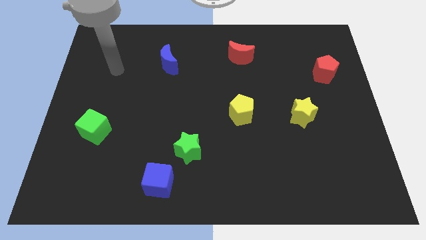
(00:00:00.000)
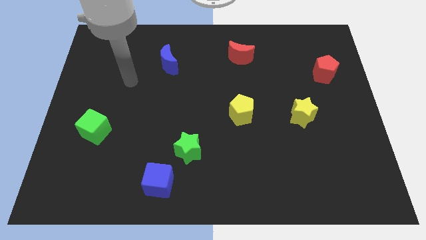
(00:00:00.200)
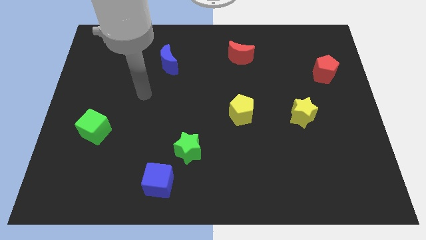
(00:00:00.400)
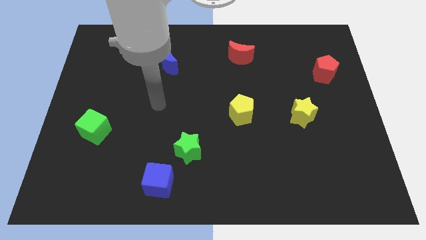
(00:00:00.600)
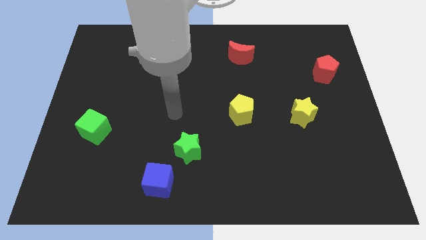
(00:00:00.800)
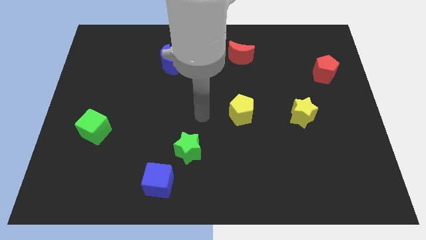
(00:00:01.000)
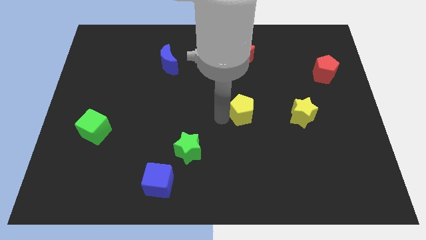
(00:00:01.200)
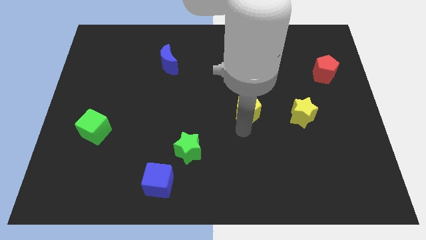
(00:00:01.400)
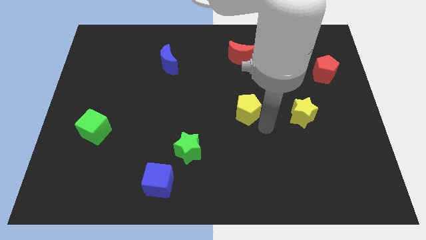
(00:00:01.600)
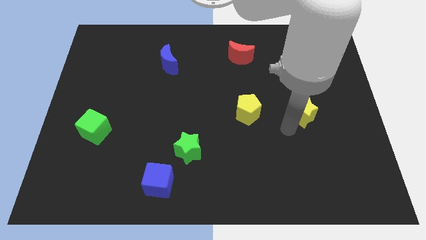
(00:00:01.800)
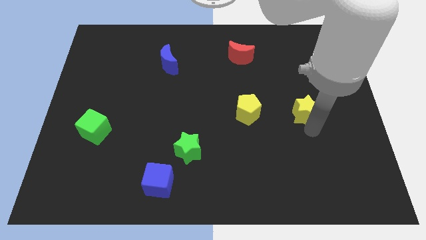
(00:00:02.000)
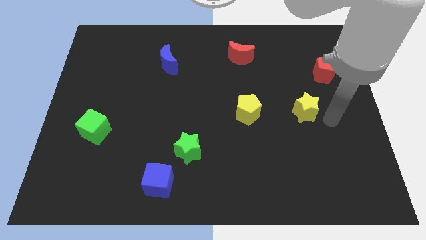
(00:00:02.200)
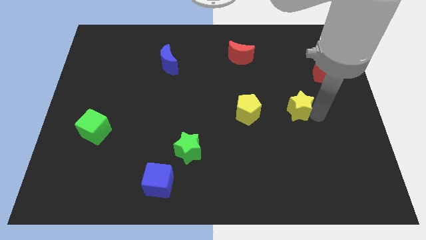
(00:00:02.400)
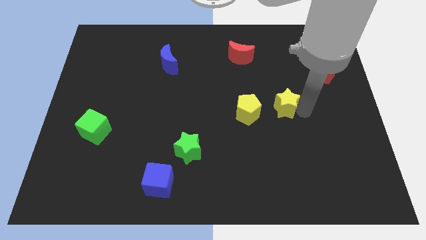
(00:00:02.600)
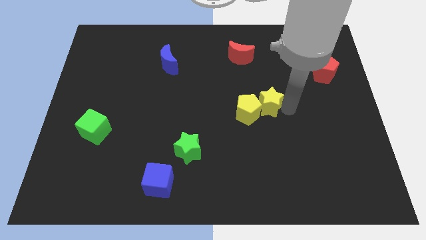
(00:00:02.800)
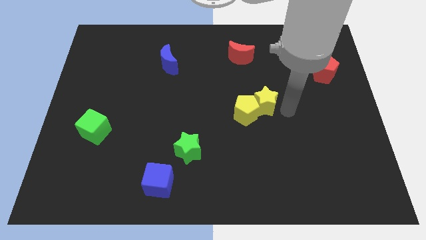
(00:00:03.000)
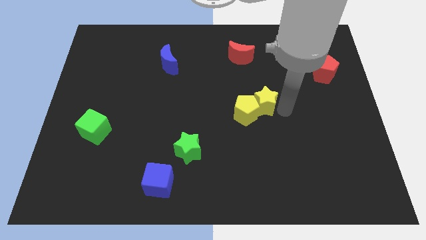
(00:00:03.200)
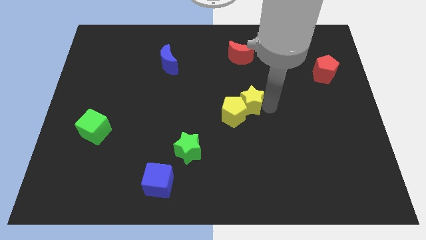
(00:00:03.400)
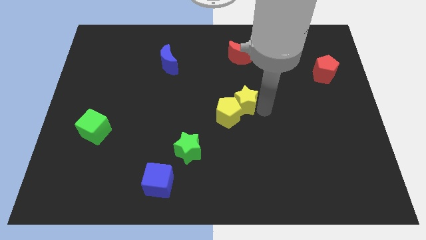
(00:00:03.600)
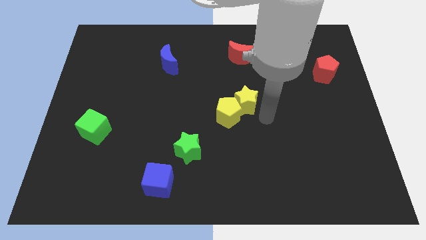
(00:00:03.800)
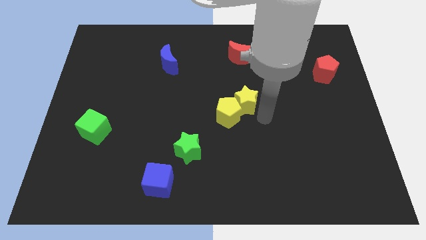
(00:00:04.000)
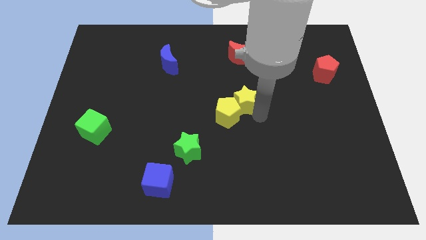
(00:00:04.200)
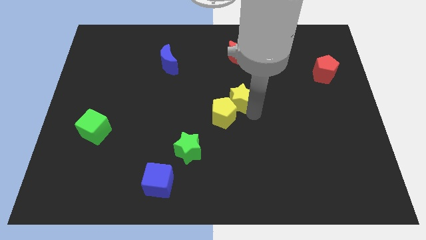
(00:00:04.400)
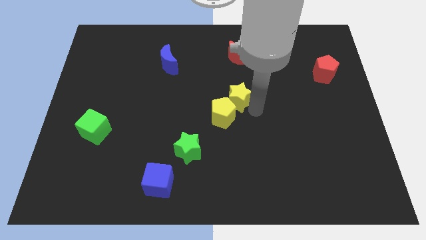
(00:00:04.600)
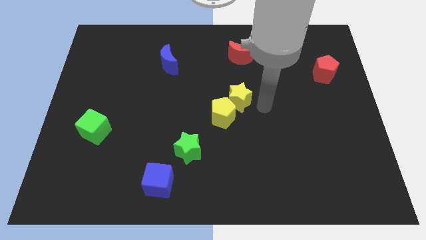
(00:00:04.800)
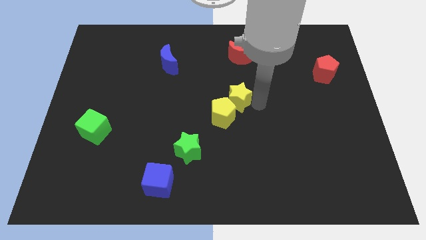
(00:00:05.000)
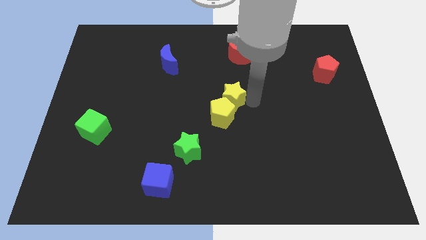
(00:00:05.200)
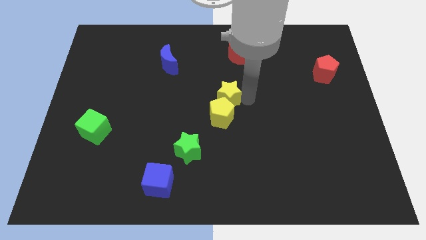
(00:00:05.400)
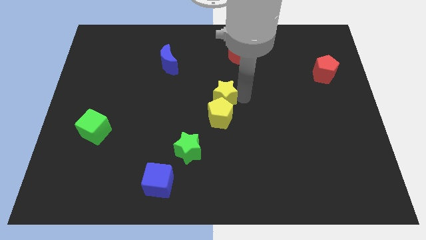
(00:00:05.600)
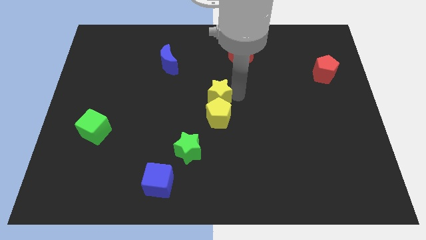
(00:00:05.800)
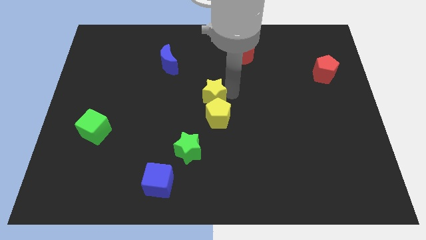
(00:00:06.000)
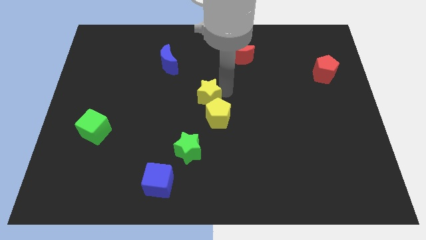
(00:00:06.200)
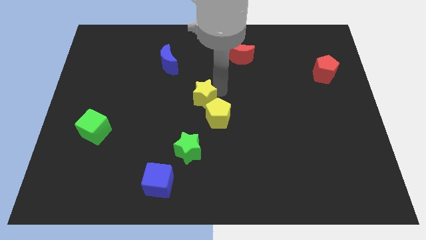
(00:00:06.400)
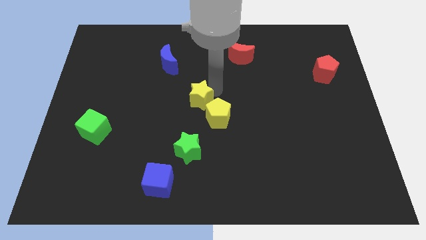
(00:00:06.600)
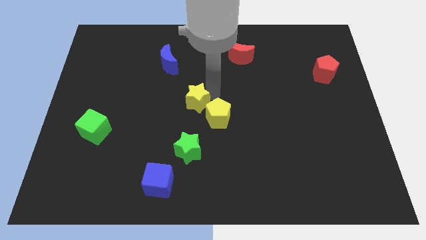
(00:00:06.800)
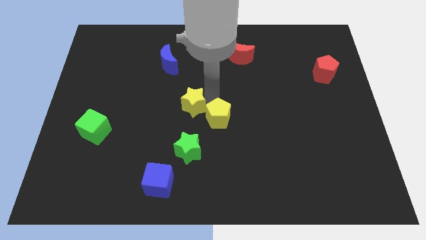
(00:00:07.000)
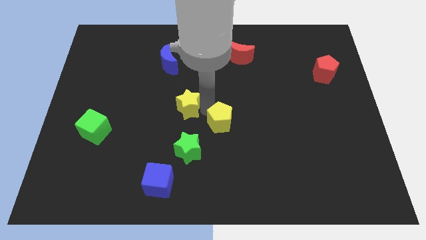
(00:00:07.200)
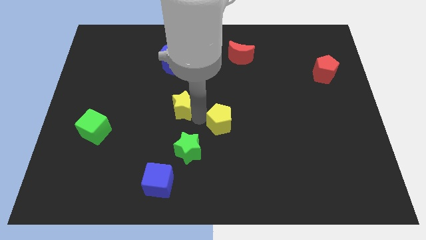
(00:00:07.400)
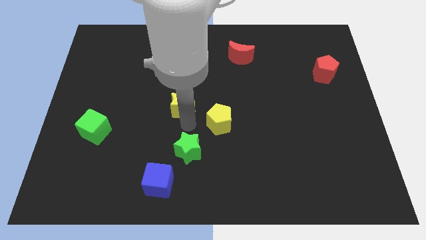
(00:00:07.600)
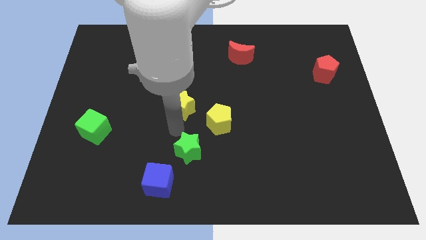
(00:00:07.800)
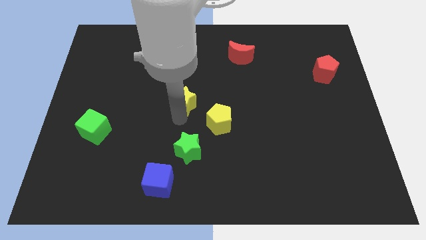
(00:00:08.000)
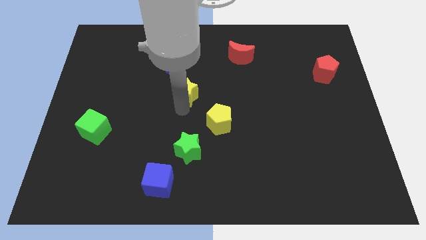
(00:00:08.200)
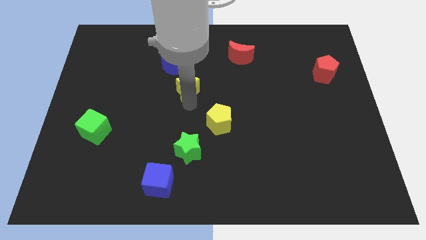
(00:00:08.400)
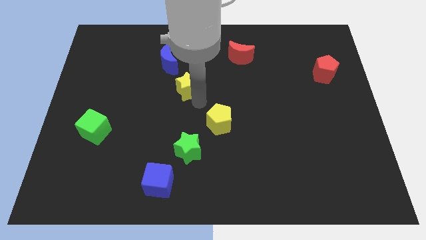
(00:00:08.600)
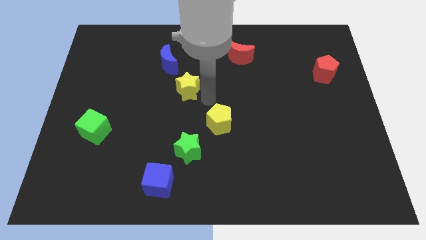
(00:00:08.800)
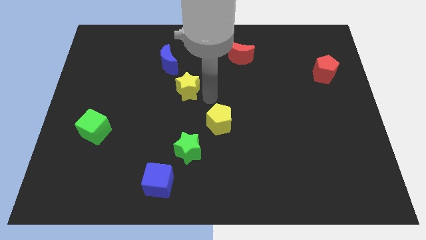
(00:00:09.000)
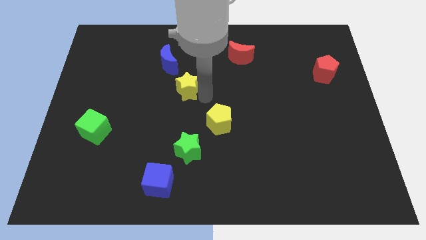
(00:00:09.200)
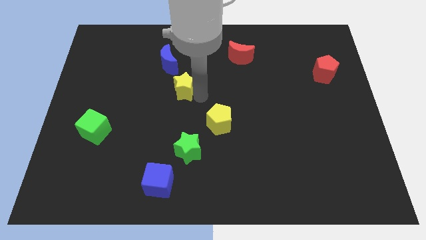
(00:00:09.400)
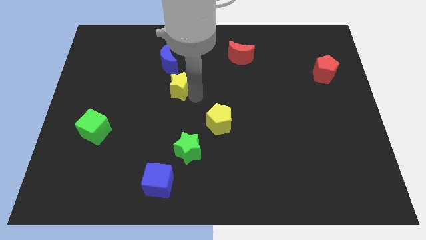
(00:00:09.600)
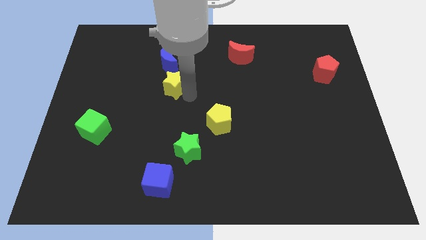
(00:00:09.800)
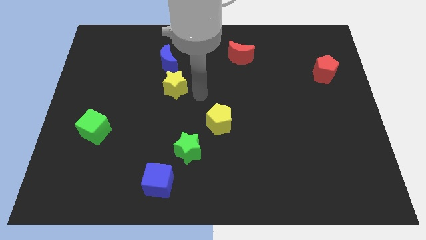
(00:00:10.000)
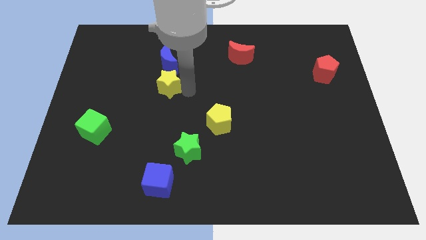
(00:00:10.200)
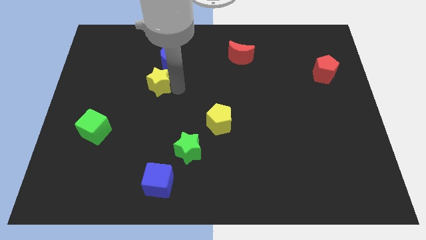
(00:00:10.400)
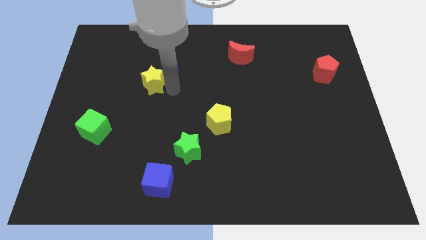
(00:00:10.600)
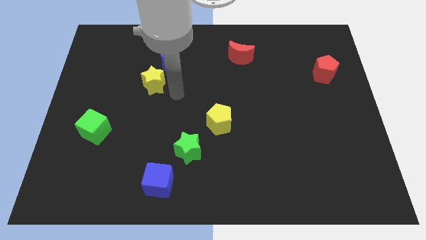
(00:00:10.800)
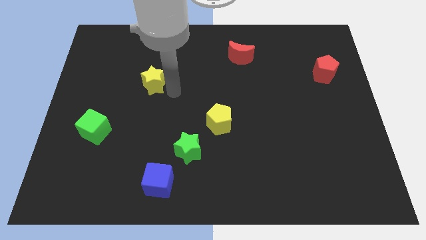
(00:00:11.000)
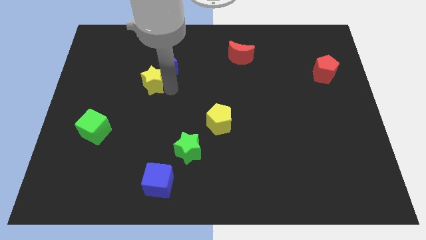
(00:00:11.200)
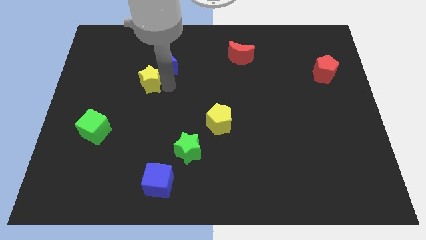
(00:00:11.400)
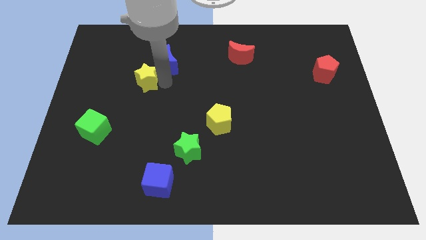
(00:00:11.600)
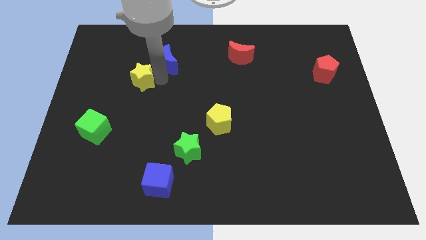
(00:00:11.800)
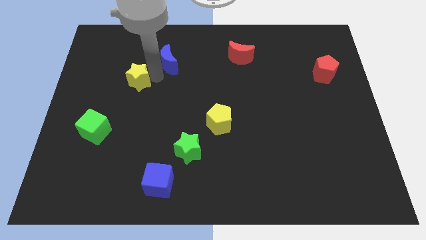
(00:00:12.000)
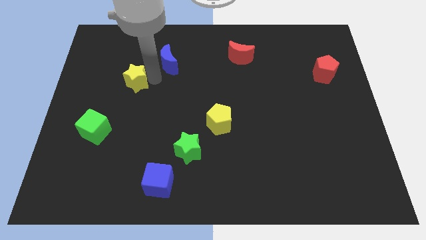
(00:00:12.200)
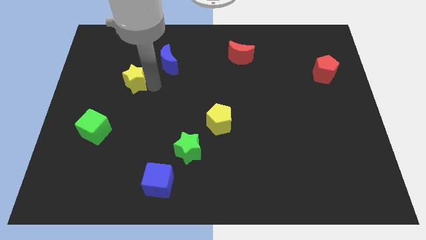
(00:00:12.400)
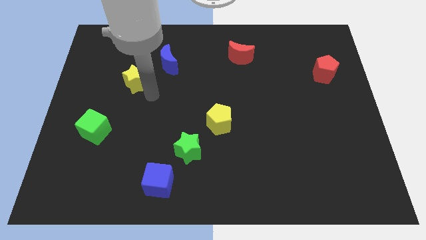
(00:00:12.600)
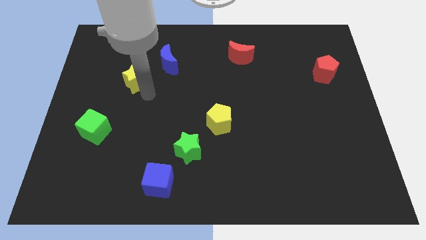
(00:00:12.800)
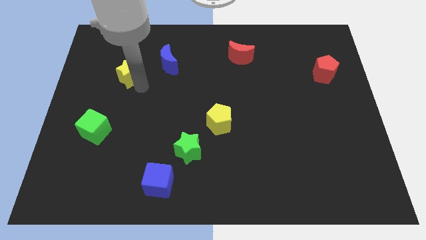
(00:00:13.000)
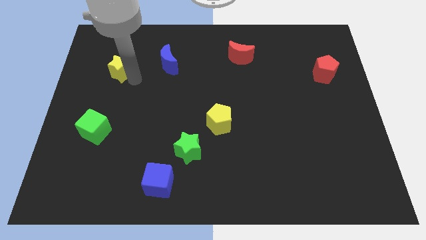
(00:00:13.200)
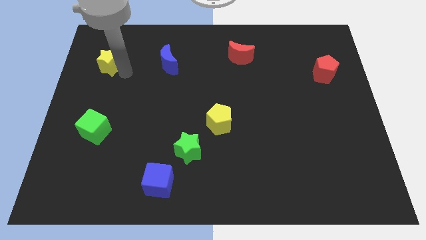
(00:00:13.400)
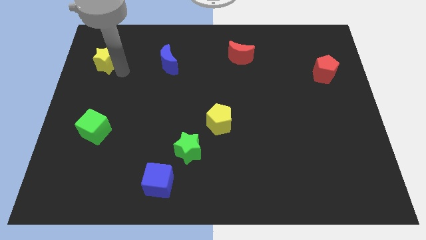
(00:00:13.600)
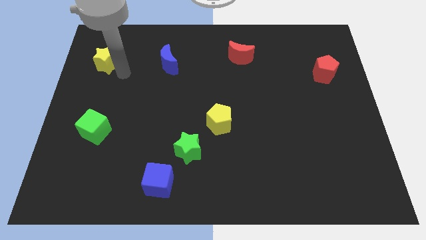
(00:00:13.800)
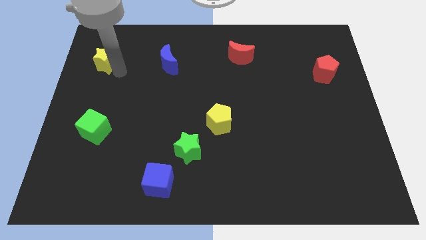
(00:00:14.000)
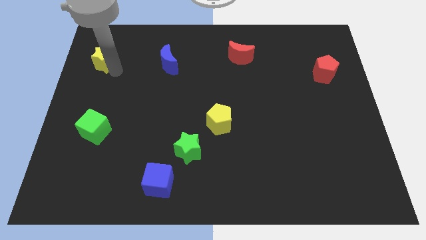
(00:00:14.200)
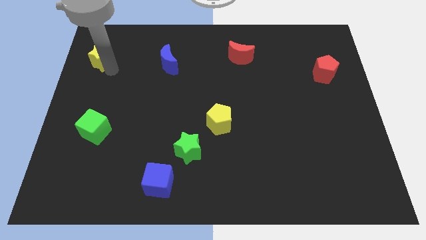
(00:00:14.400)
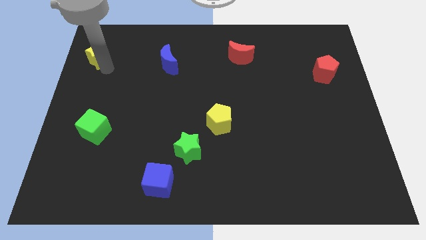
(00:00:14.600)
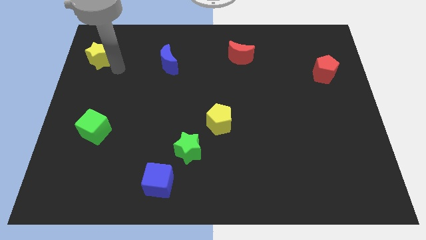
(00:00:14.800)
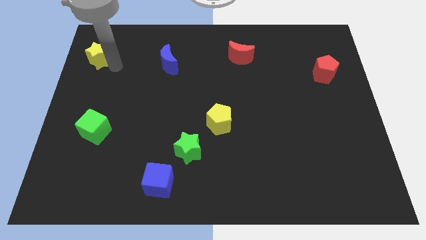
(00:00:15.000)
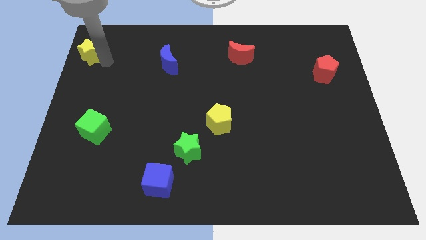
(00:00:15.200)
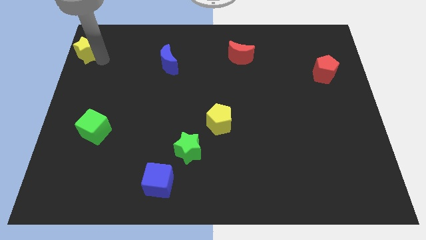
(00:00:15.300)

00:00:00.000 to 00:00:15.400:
push the yellow star to the top left
